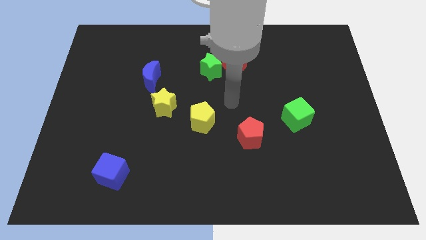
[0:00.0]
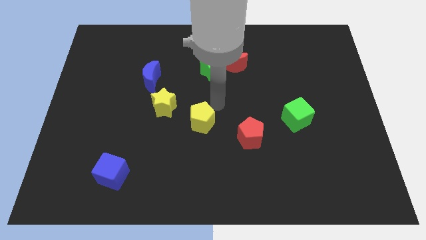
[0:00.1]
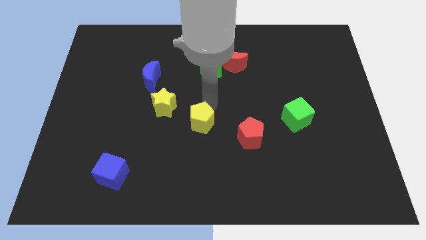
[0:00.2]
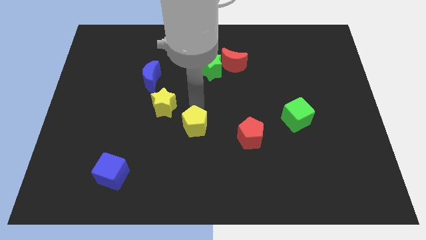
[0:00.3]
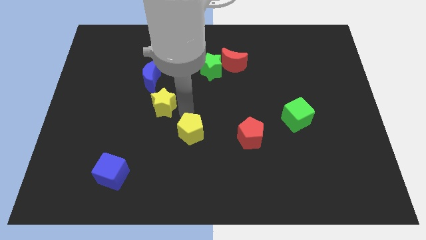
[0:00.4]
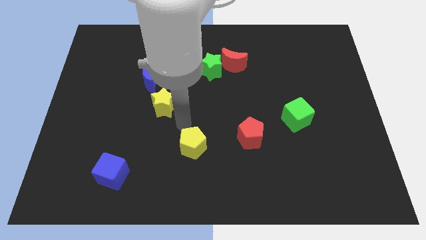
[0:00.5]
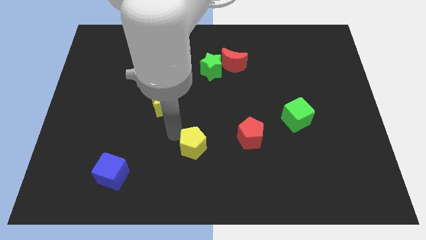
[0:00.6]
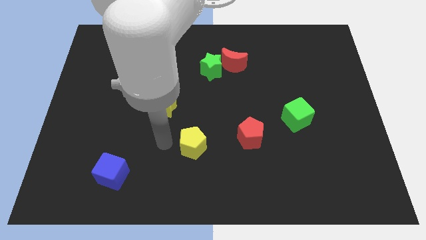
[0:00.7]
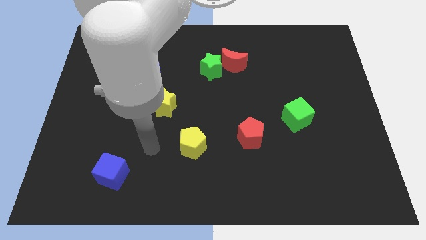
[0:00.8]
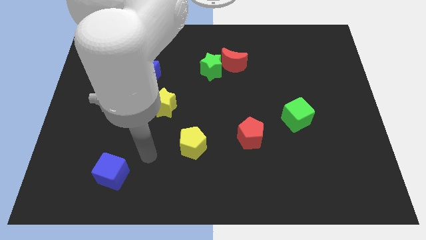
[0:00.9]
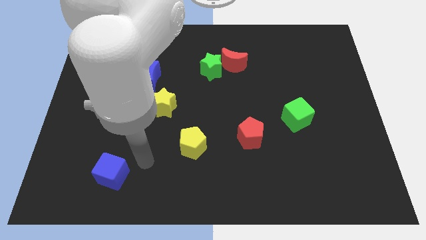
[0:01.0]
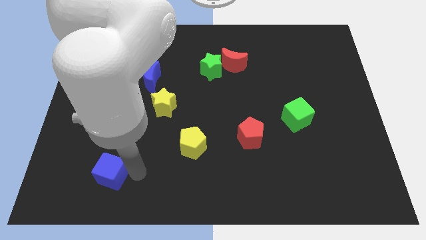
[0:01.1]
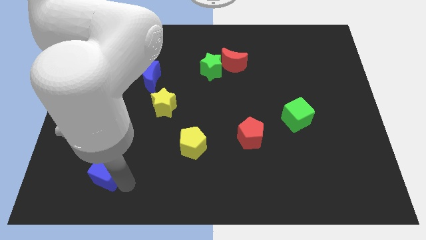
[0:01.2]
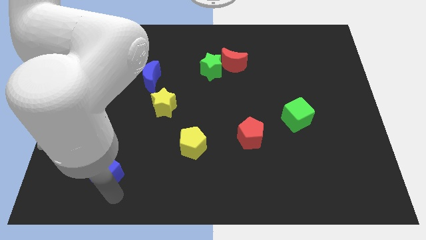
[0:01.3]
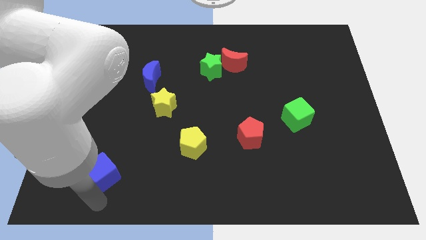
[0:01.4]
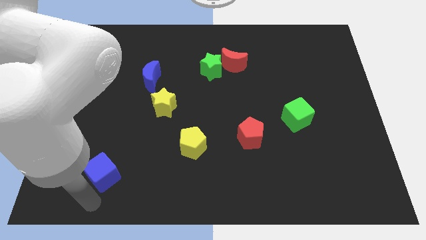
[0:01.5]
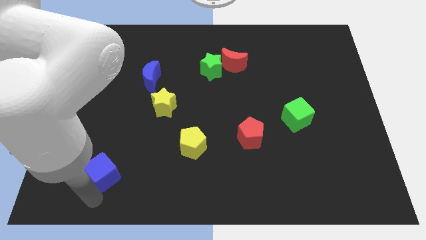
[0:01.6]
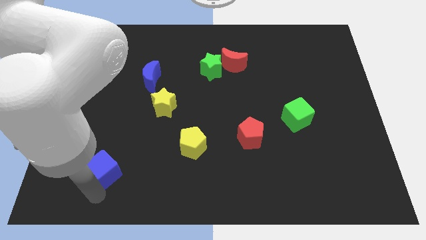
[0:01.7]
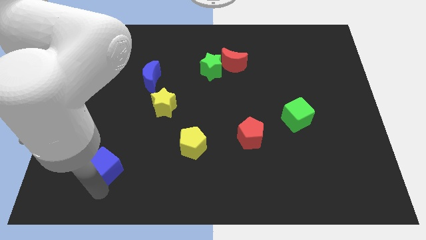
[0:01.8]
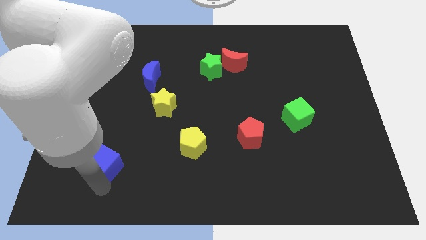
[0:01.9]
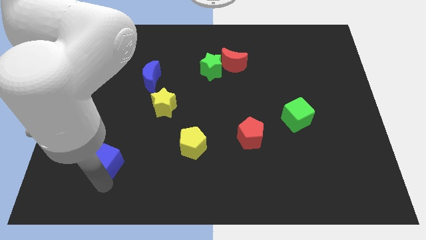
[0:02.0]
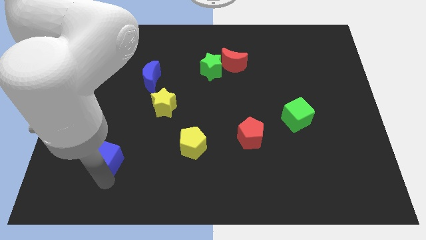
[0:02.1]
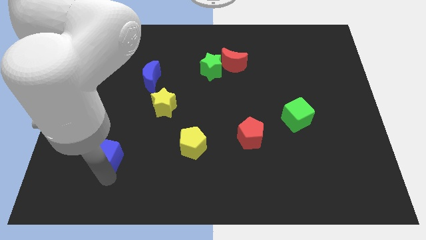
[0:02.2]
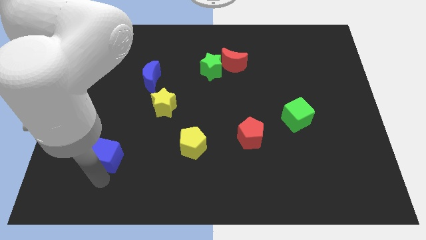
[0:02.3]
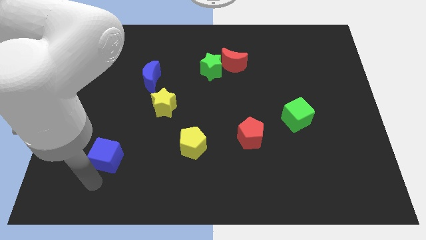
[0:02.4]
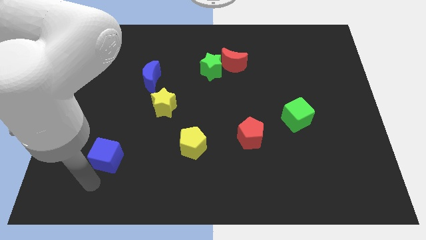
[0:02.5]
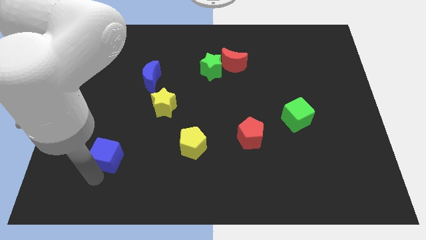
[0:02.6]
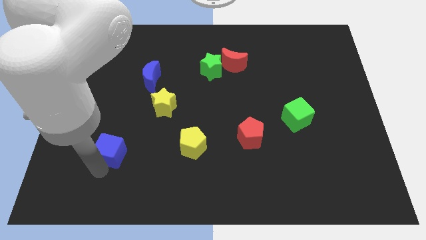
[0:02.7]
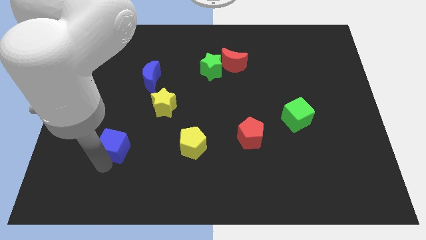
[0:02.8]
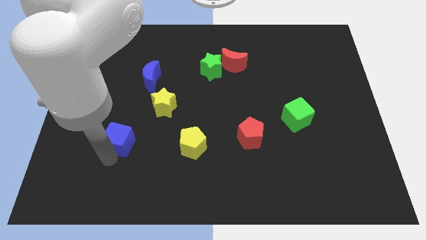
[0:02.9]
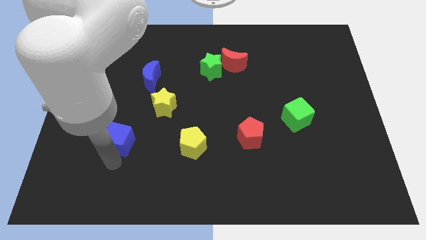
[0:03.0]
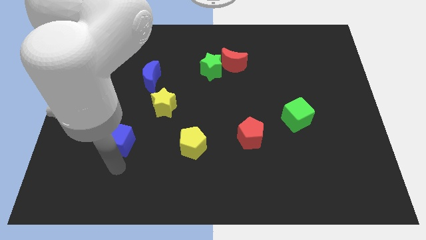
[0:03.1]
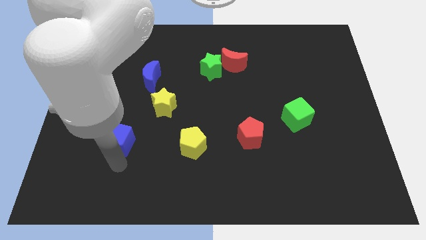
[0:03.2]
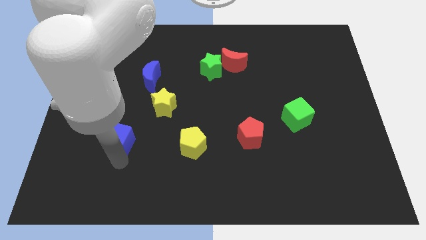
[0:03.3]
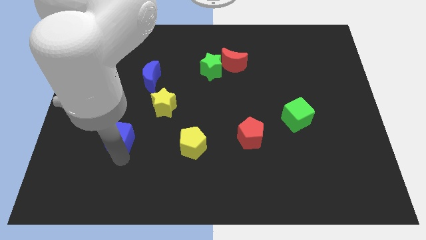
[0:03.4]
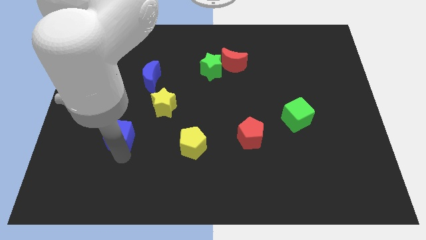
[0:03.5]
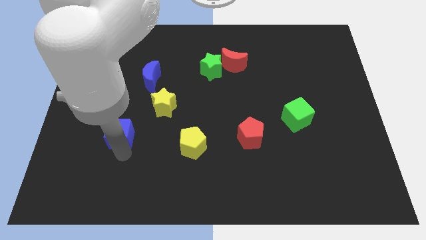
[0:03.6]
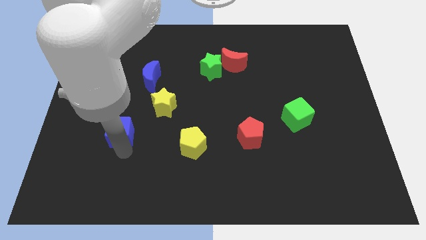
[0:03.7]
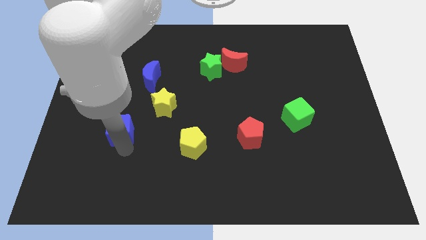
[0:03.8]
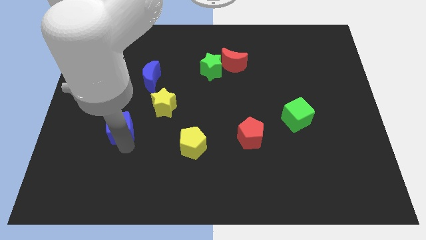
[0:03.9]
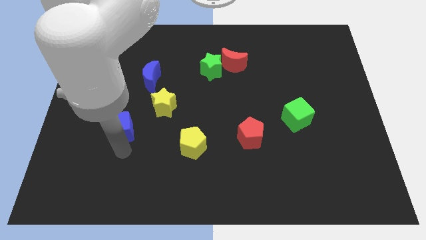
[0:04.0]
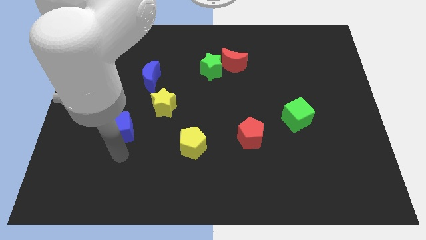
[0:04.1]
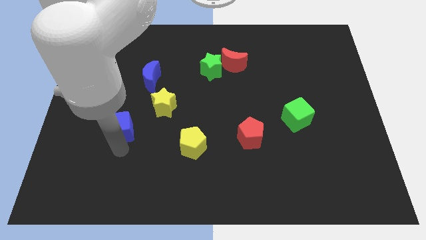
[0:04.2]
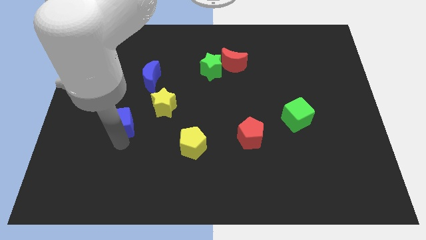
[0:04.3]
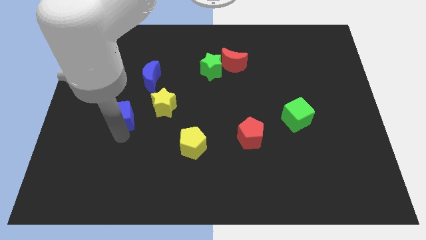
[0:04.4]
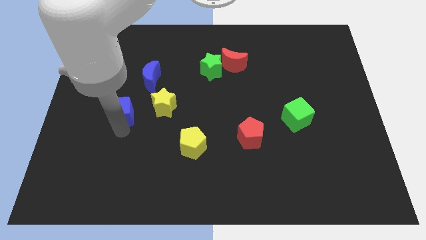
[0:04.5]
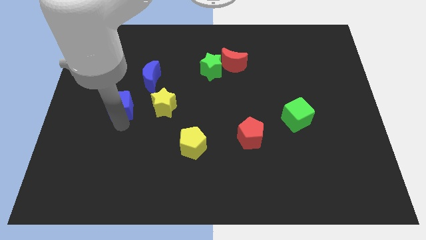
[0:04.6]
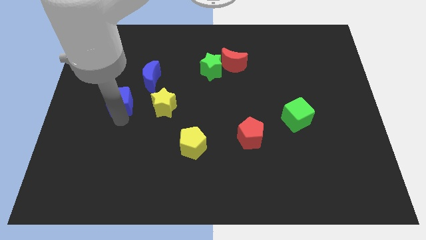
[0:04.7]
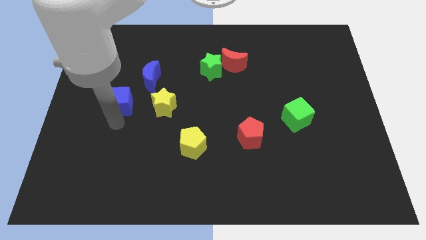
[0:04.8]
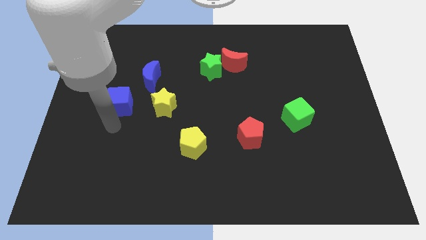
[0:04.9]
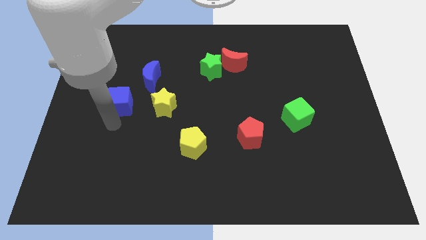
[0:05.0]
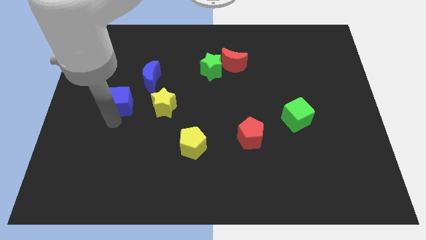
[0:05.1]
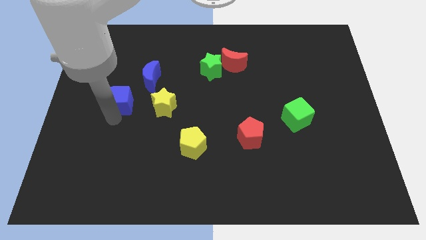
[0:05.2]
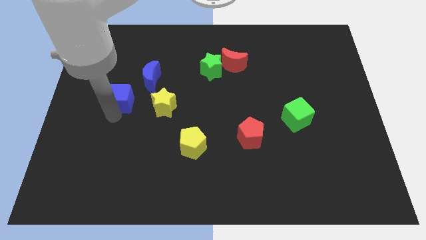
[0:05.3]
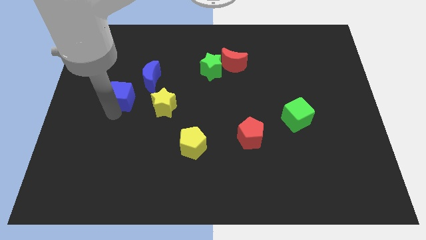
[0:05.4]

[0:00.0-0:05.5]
slide the blue cube up

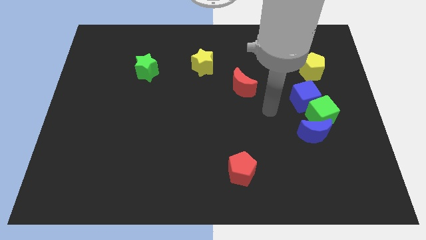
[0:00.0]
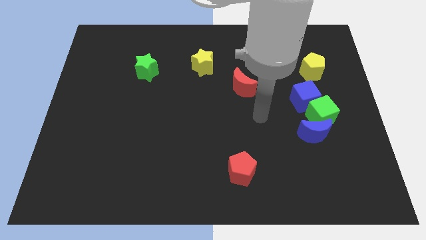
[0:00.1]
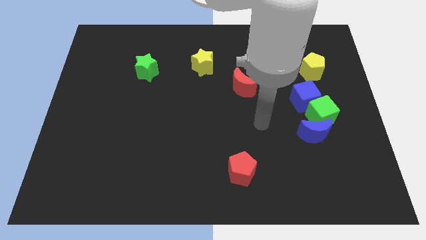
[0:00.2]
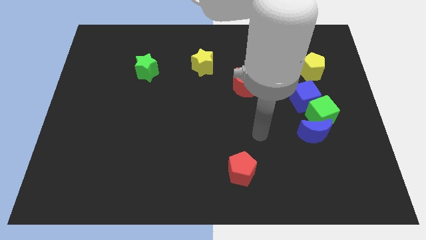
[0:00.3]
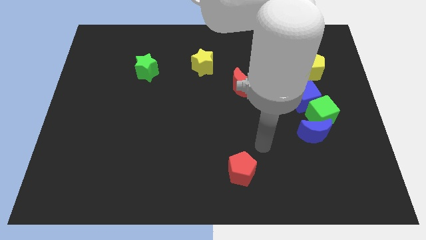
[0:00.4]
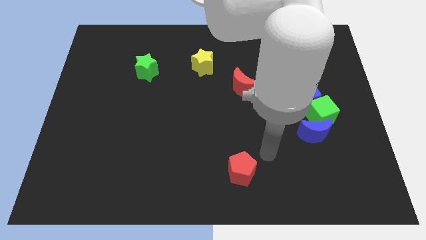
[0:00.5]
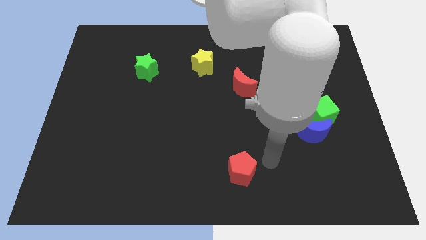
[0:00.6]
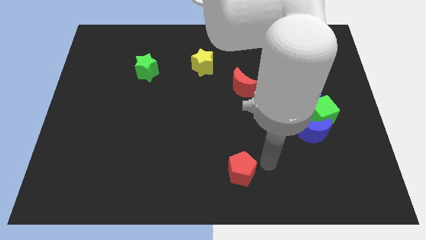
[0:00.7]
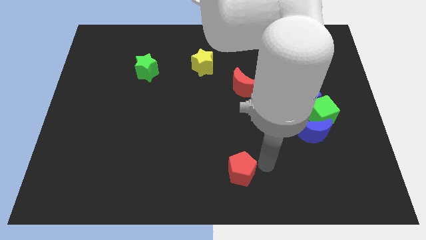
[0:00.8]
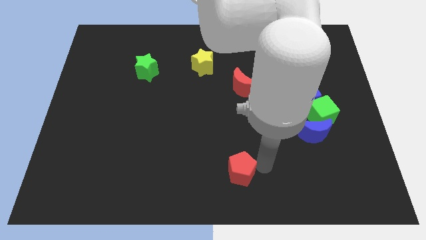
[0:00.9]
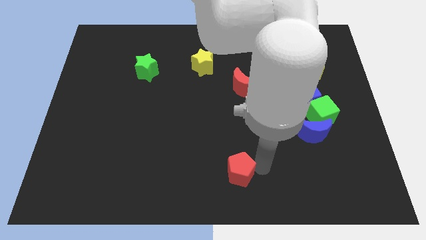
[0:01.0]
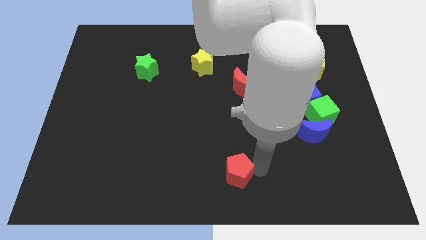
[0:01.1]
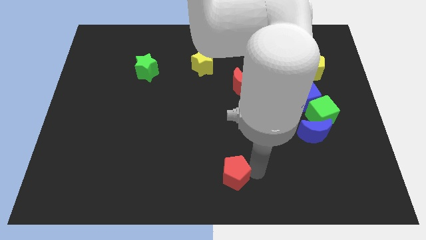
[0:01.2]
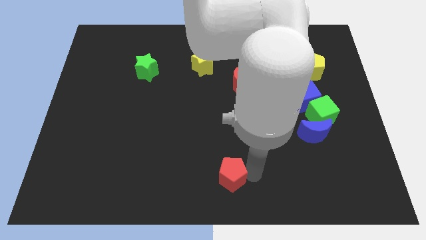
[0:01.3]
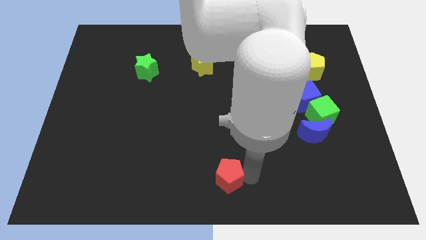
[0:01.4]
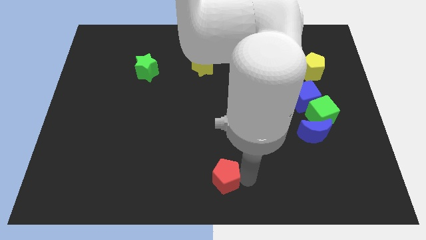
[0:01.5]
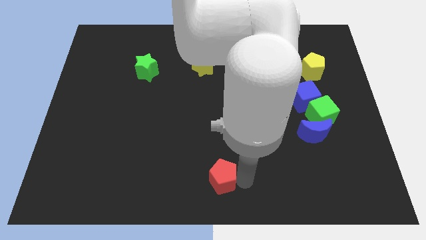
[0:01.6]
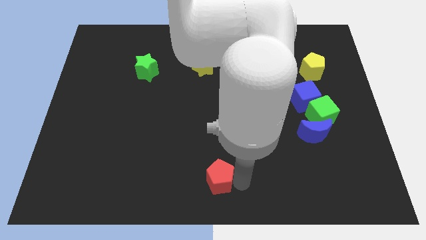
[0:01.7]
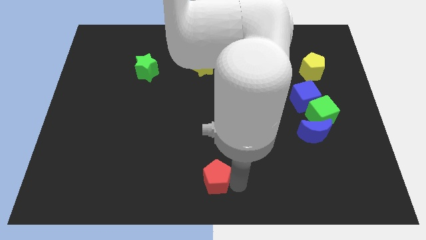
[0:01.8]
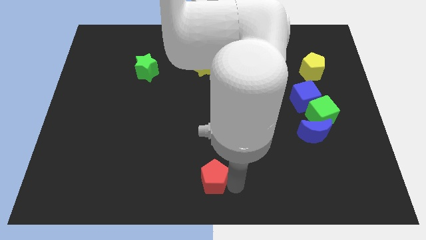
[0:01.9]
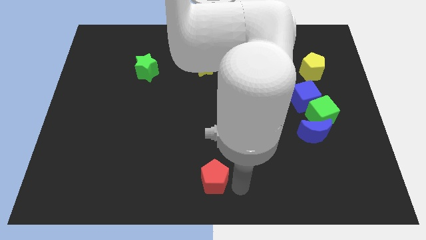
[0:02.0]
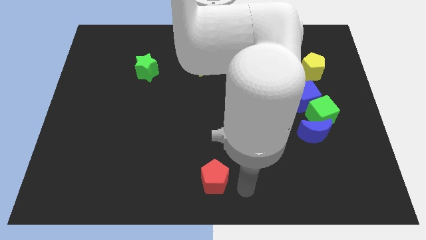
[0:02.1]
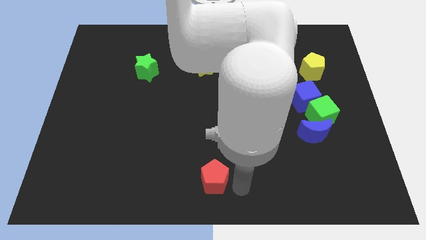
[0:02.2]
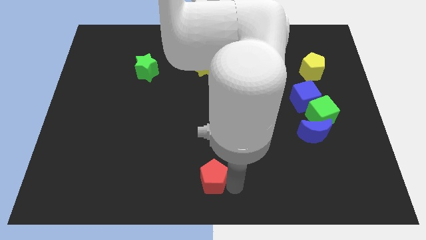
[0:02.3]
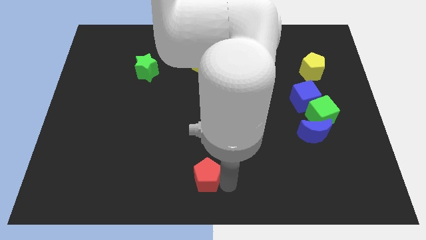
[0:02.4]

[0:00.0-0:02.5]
slightly slide the red pentagon to the left

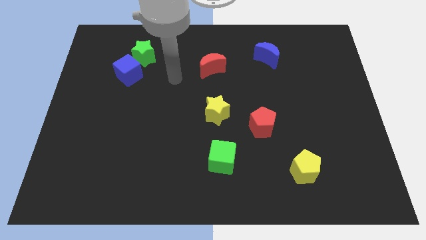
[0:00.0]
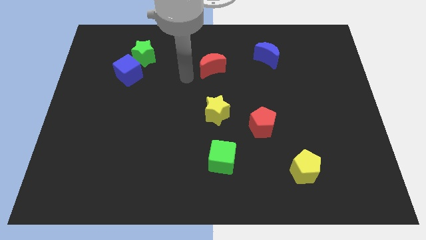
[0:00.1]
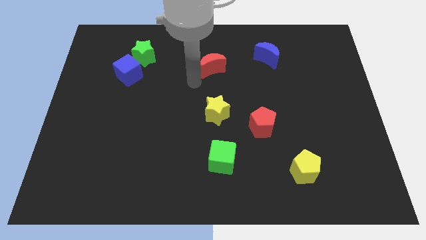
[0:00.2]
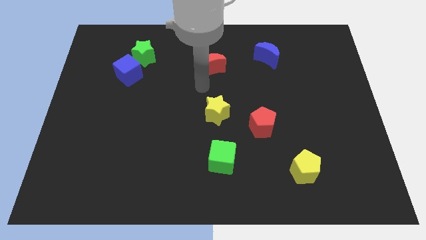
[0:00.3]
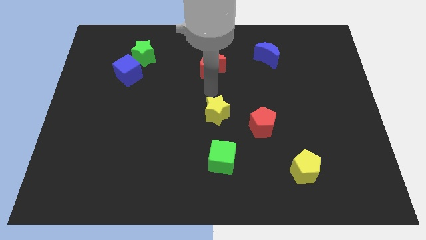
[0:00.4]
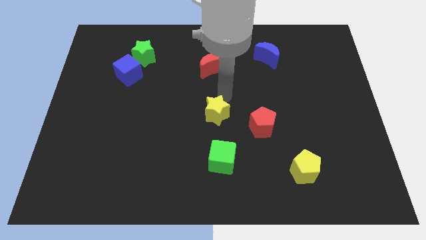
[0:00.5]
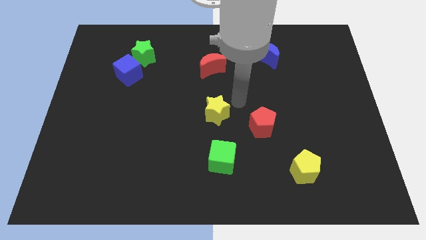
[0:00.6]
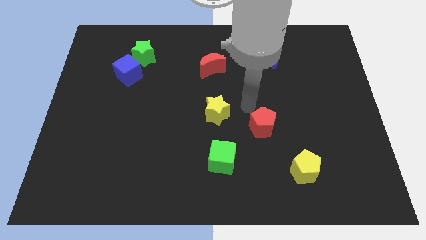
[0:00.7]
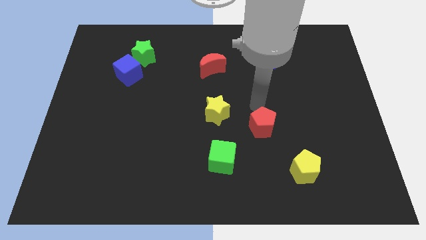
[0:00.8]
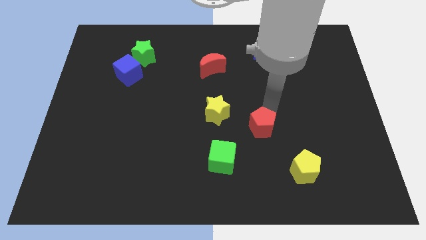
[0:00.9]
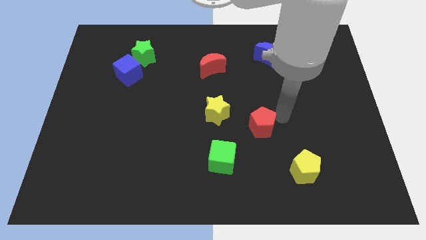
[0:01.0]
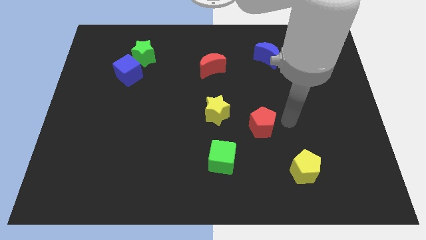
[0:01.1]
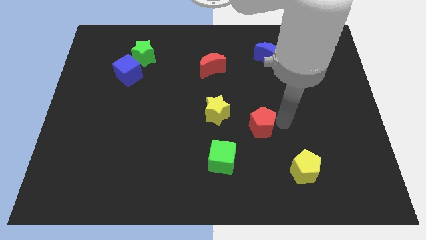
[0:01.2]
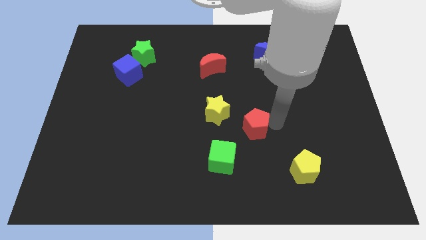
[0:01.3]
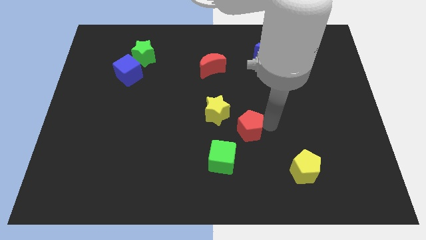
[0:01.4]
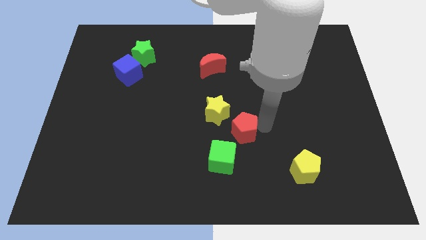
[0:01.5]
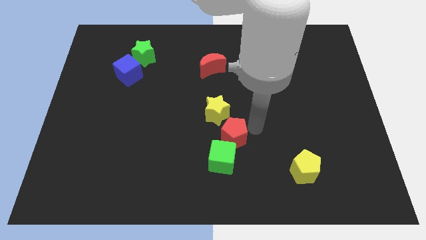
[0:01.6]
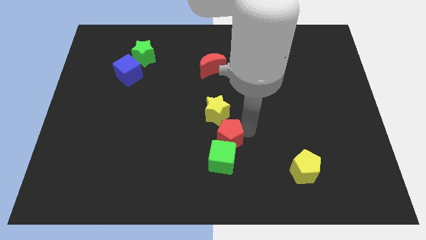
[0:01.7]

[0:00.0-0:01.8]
slightly move the red pentagon downwards and then left
